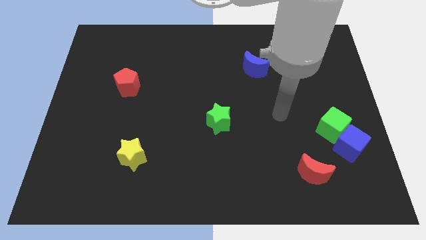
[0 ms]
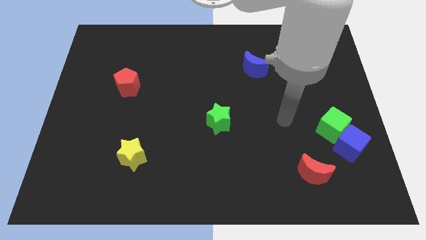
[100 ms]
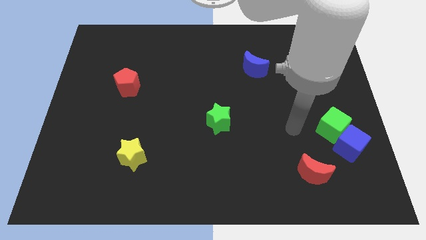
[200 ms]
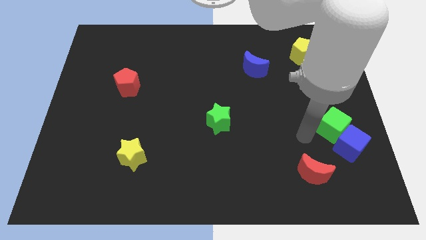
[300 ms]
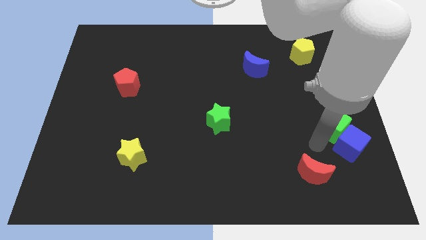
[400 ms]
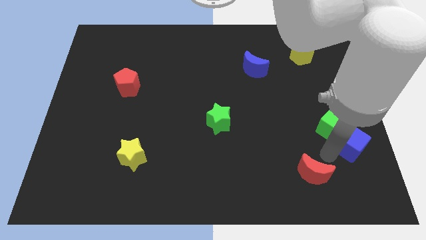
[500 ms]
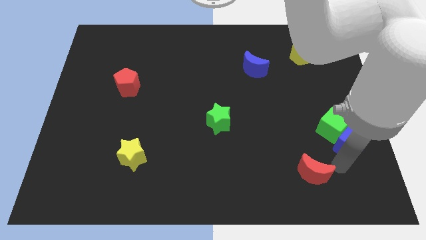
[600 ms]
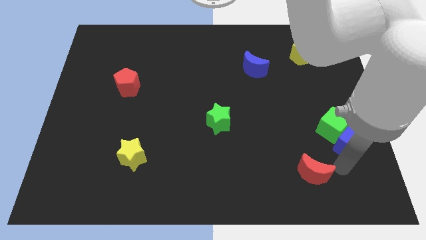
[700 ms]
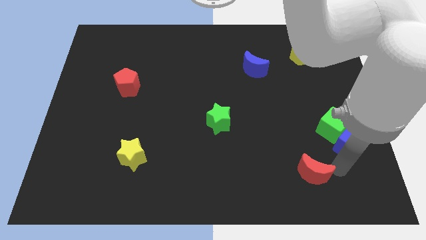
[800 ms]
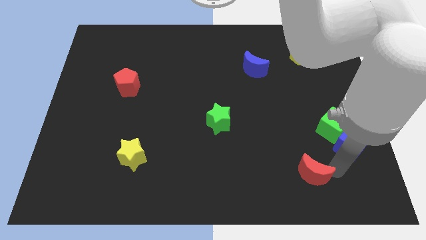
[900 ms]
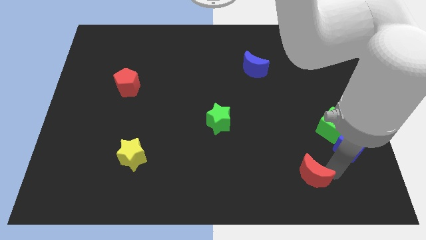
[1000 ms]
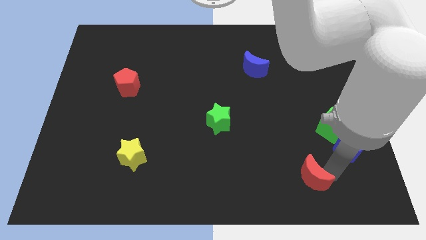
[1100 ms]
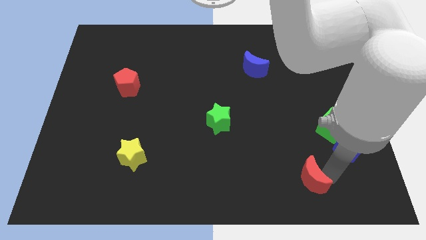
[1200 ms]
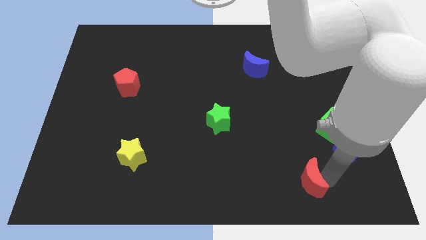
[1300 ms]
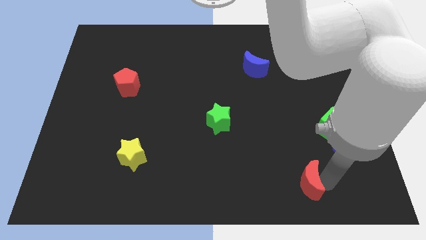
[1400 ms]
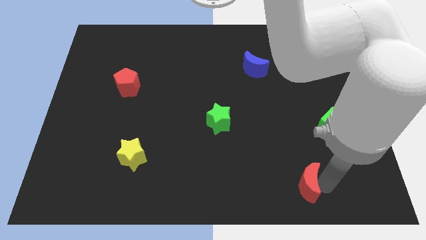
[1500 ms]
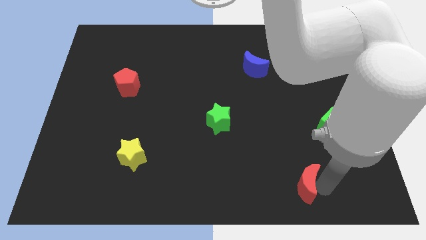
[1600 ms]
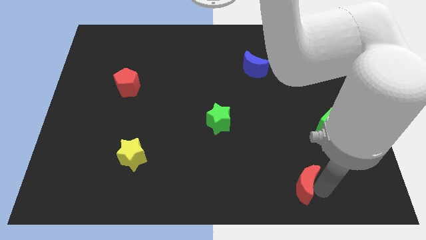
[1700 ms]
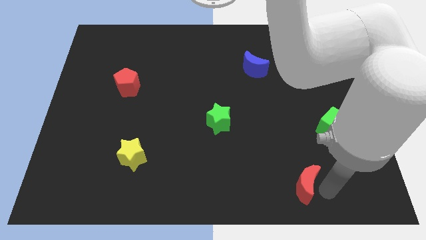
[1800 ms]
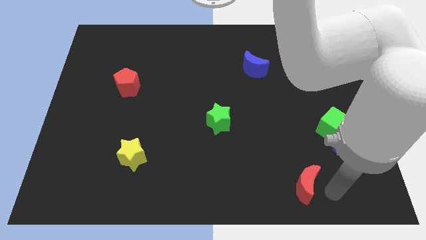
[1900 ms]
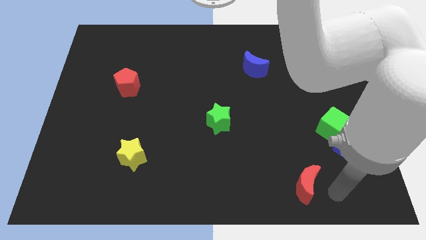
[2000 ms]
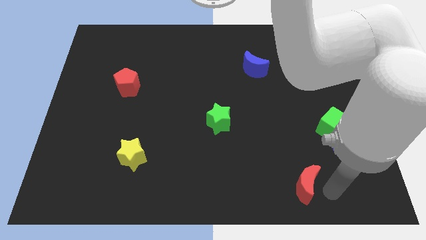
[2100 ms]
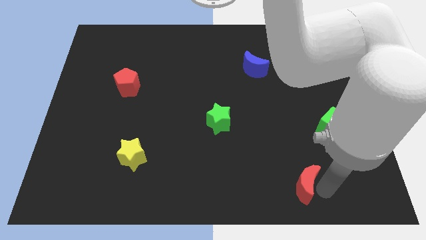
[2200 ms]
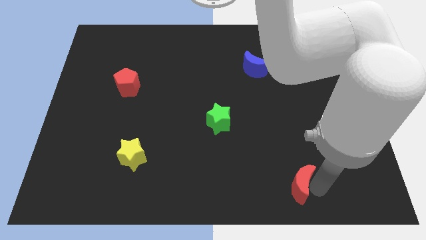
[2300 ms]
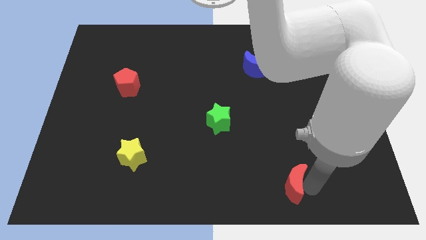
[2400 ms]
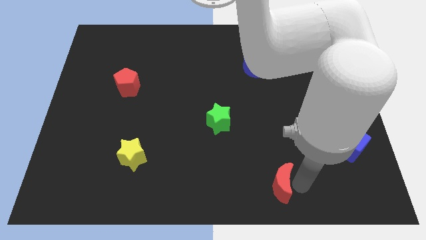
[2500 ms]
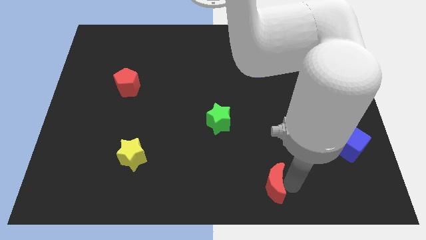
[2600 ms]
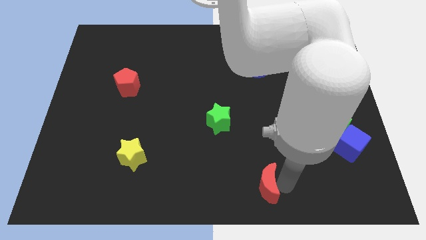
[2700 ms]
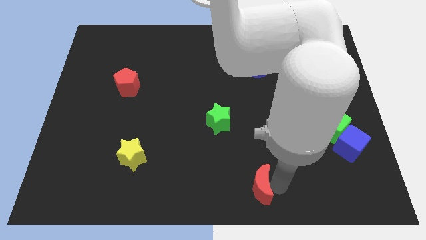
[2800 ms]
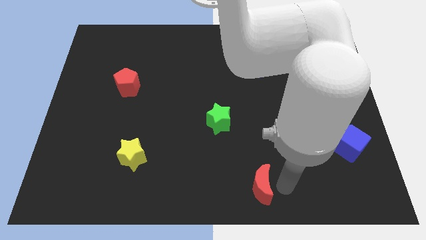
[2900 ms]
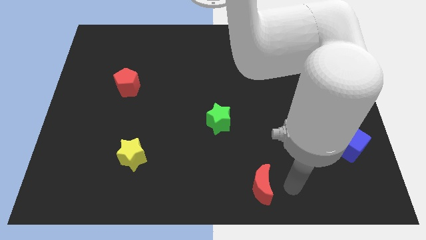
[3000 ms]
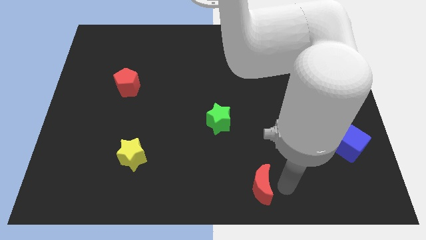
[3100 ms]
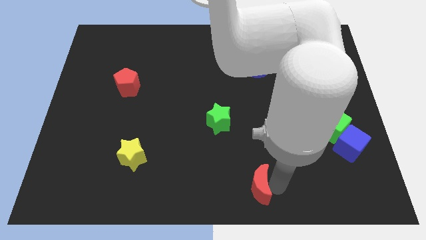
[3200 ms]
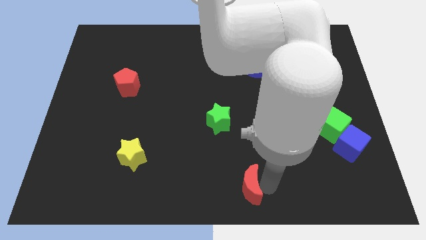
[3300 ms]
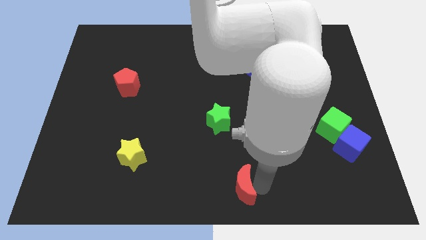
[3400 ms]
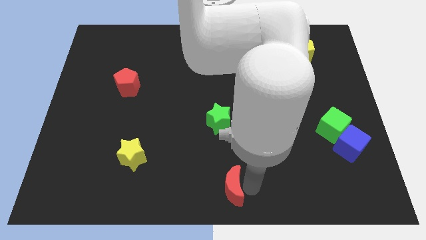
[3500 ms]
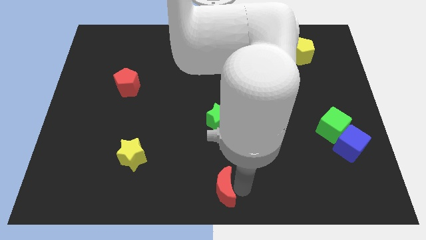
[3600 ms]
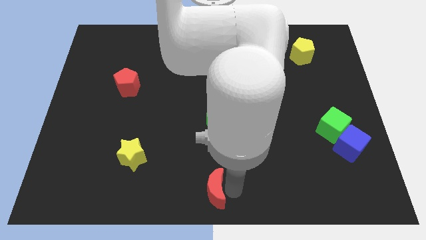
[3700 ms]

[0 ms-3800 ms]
push the red moon to the left

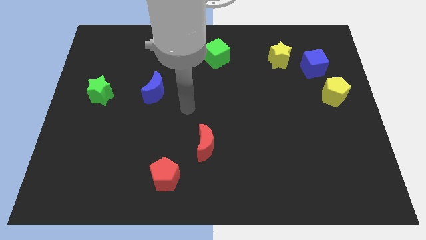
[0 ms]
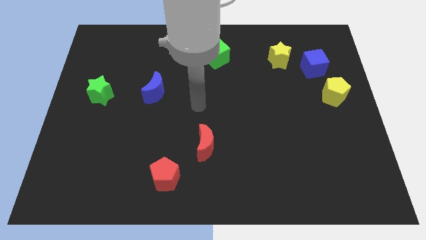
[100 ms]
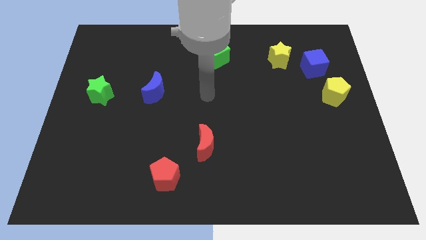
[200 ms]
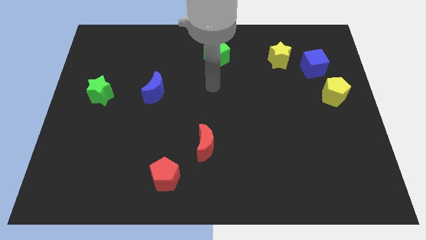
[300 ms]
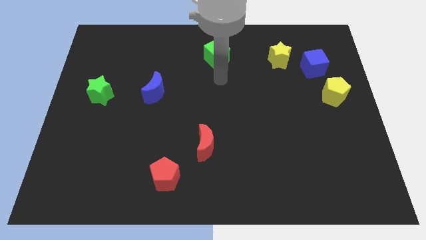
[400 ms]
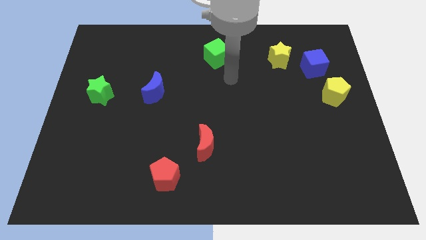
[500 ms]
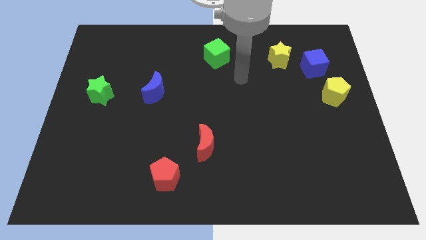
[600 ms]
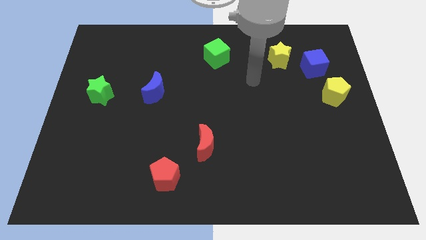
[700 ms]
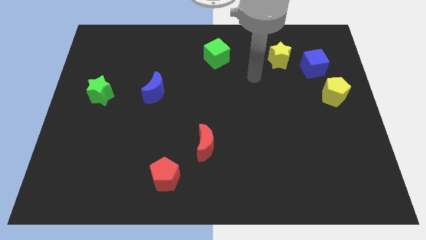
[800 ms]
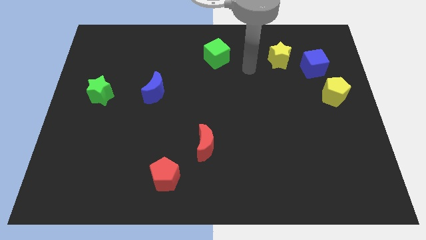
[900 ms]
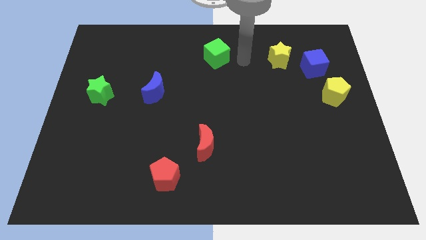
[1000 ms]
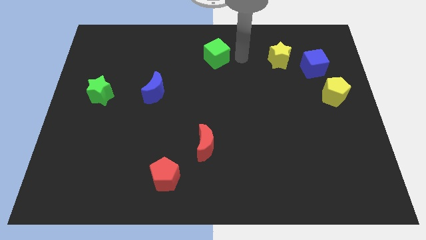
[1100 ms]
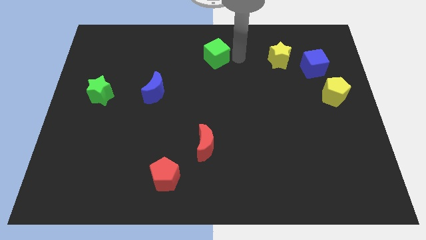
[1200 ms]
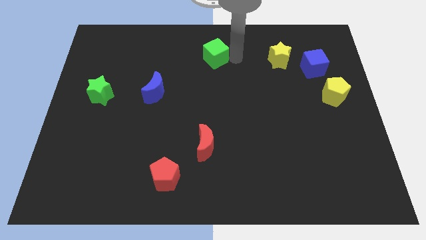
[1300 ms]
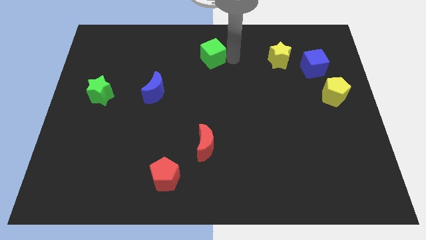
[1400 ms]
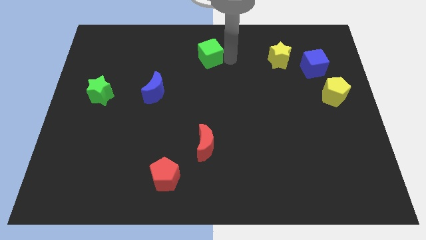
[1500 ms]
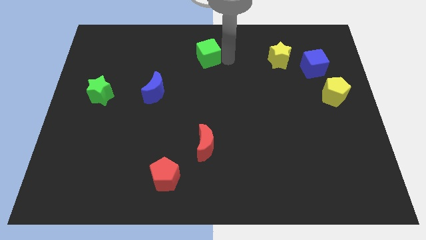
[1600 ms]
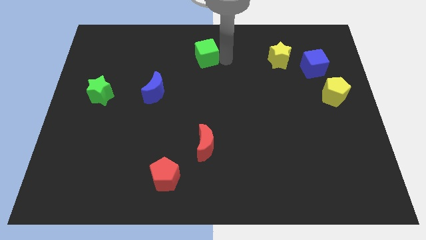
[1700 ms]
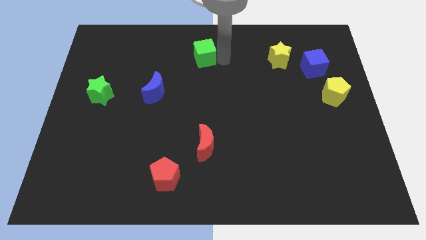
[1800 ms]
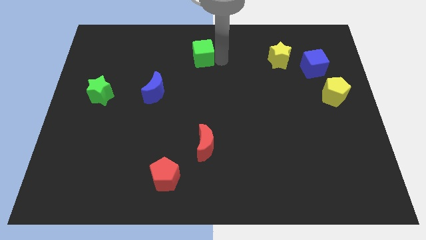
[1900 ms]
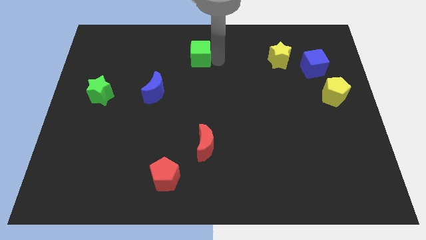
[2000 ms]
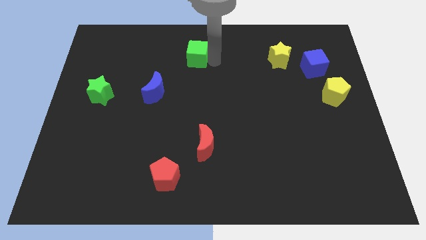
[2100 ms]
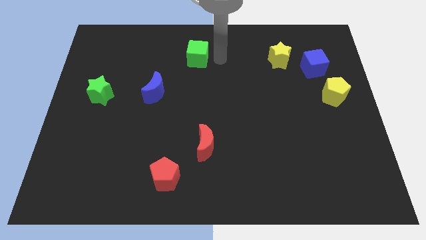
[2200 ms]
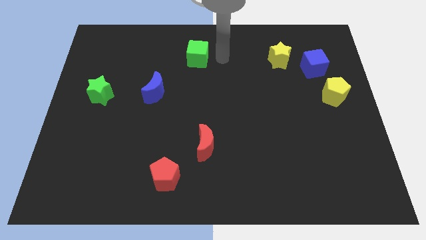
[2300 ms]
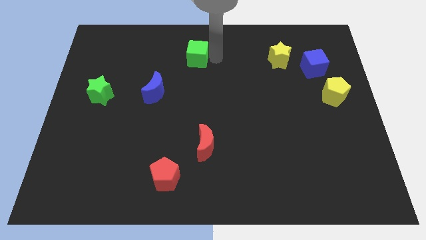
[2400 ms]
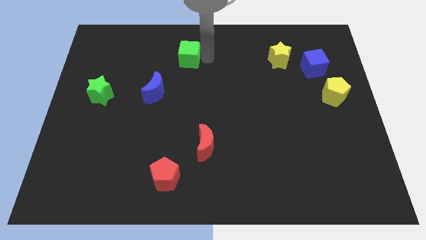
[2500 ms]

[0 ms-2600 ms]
slide the green cube left a little

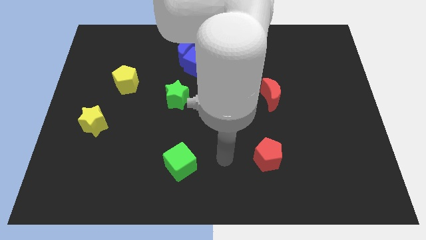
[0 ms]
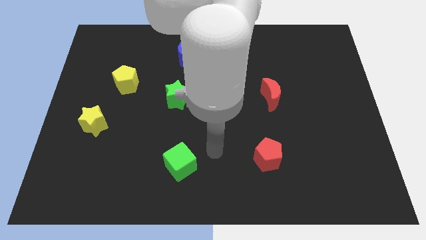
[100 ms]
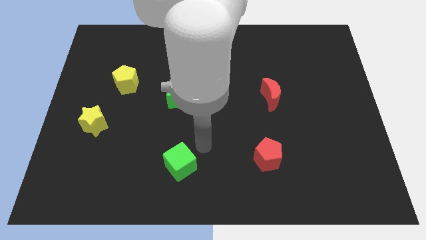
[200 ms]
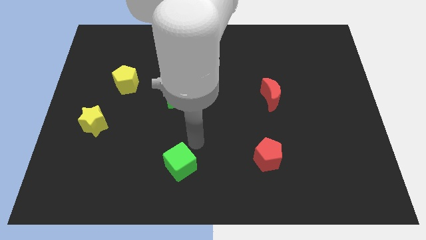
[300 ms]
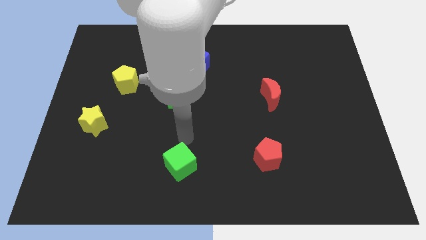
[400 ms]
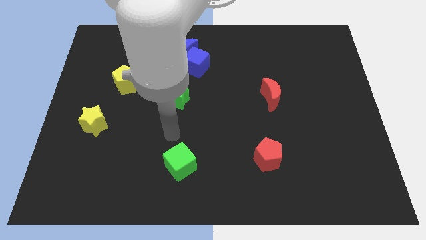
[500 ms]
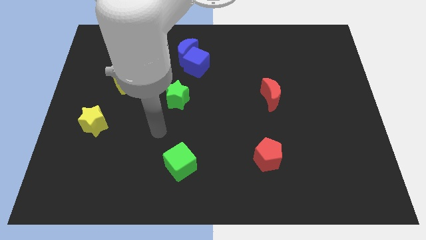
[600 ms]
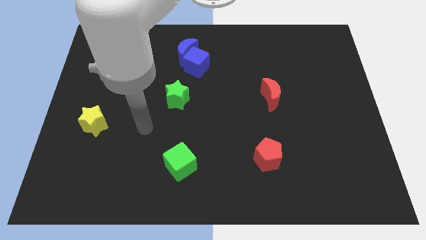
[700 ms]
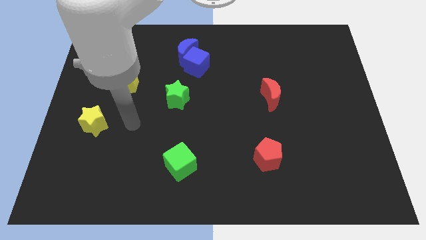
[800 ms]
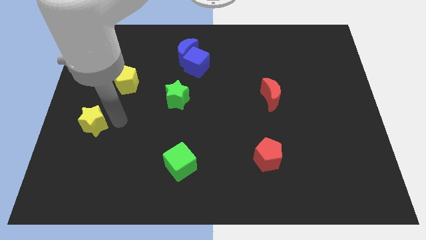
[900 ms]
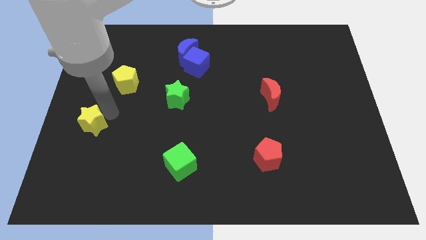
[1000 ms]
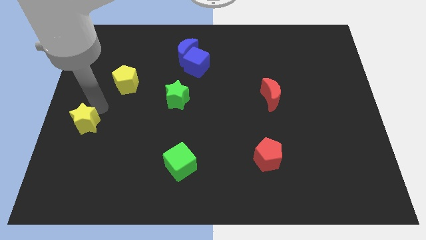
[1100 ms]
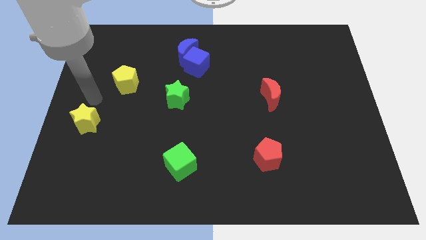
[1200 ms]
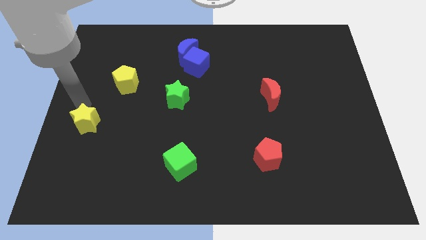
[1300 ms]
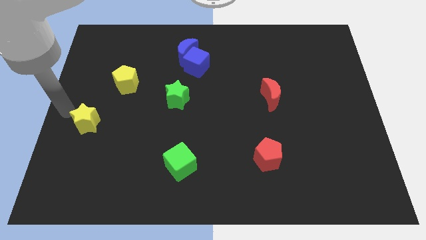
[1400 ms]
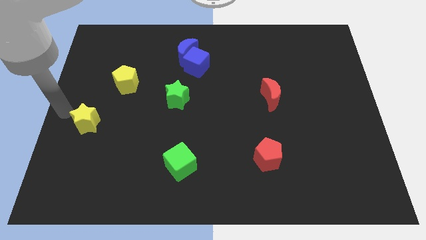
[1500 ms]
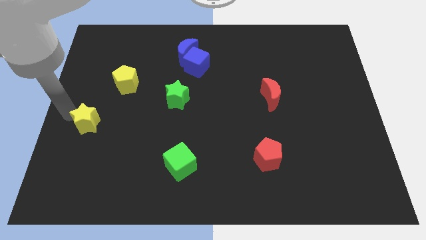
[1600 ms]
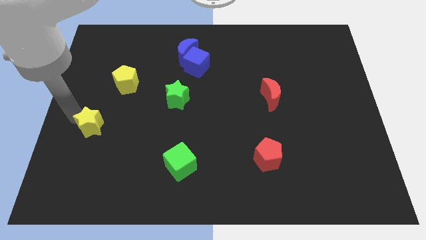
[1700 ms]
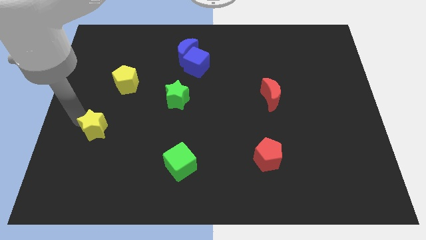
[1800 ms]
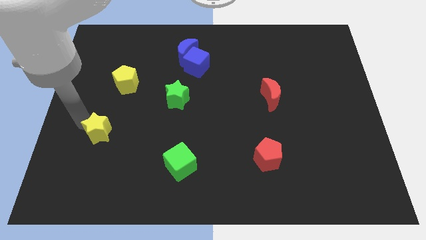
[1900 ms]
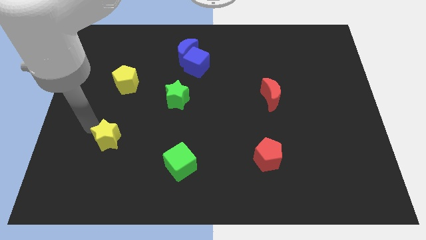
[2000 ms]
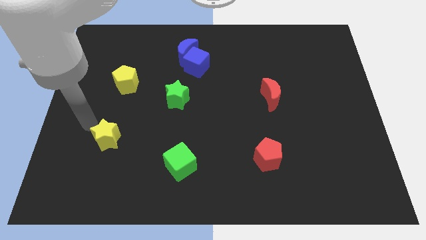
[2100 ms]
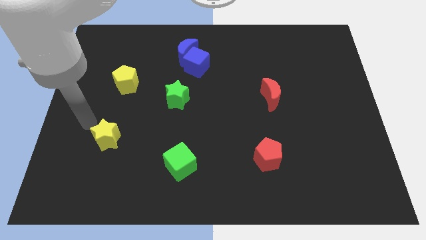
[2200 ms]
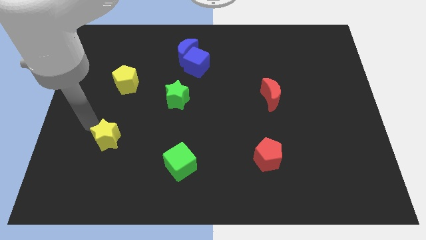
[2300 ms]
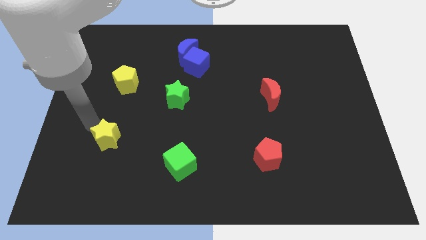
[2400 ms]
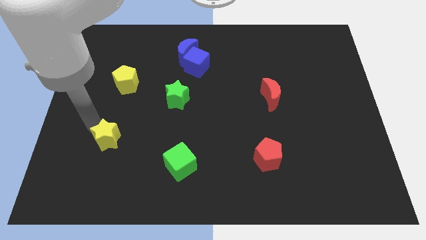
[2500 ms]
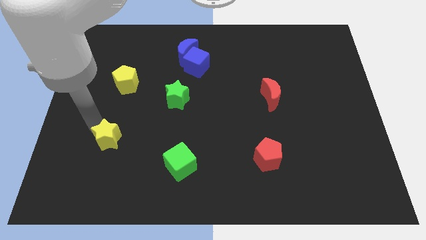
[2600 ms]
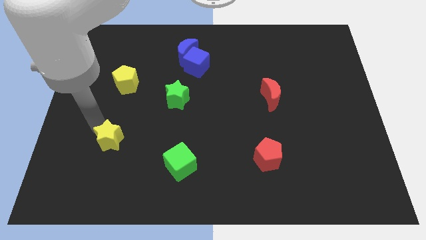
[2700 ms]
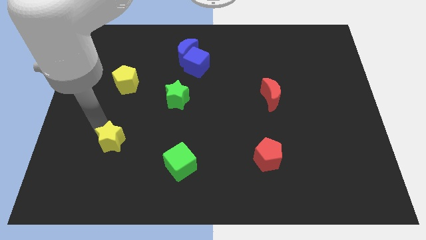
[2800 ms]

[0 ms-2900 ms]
slide the yellow star downwards and to the right diagonally a little
